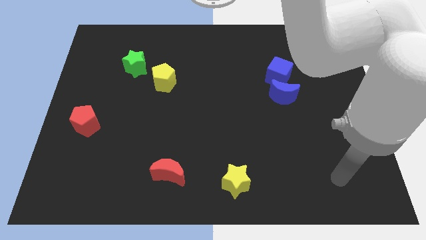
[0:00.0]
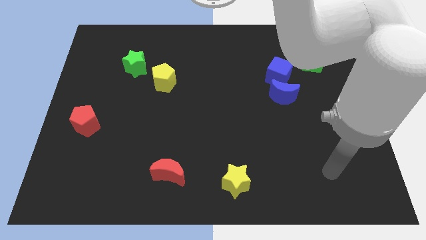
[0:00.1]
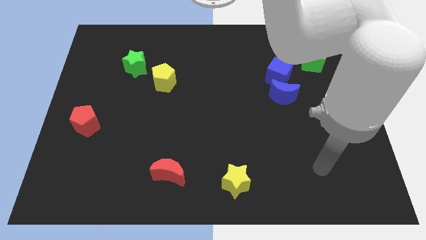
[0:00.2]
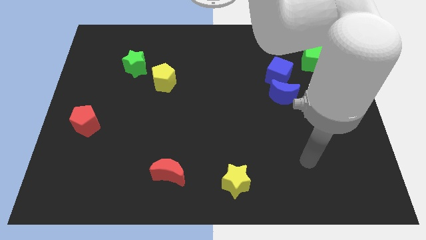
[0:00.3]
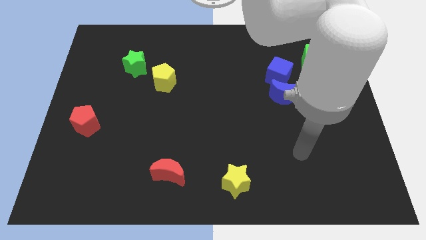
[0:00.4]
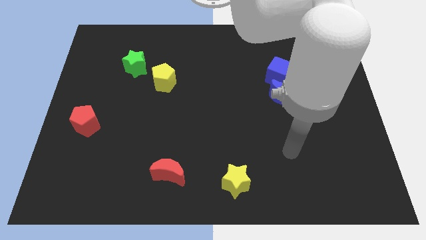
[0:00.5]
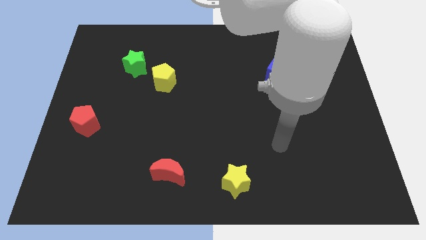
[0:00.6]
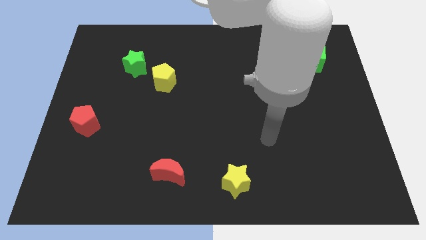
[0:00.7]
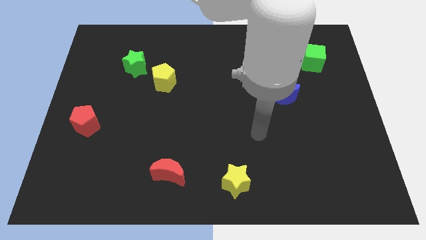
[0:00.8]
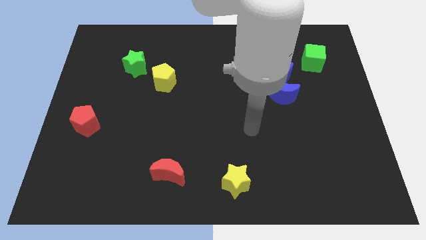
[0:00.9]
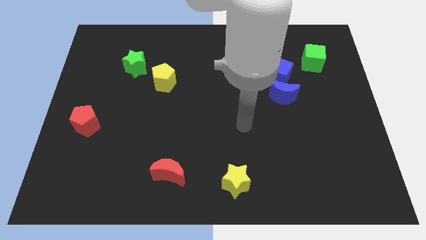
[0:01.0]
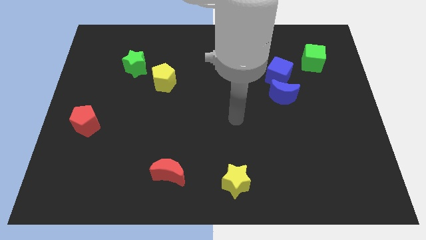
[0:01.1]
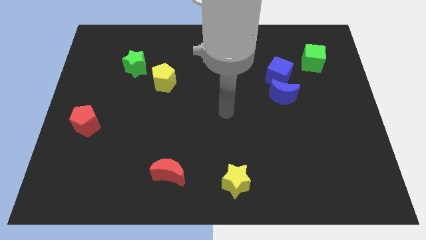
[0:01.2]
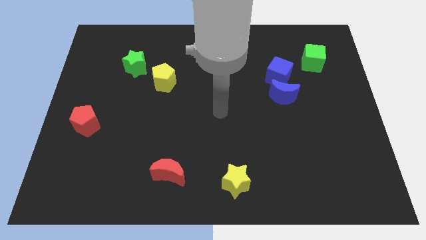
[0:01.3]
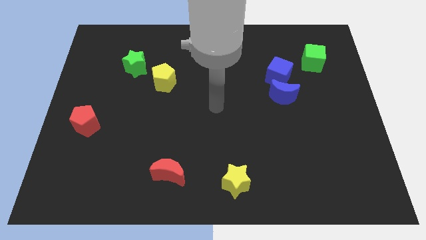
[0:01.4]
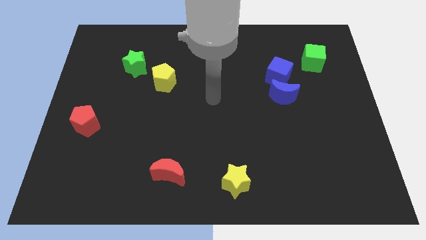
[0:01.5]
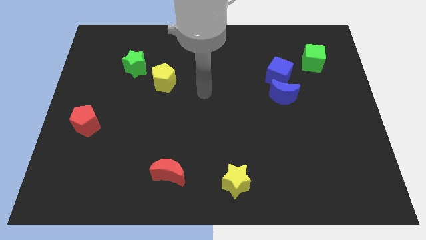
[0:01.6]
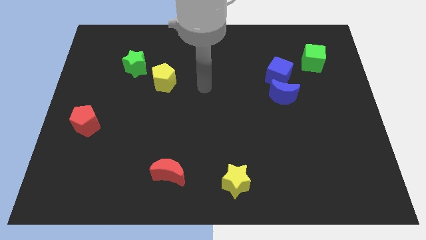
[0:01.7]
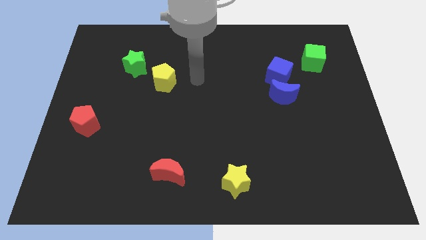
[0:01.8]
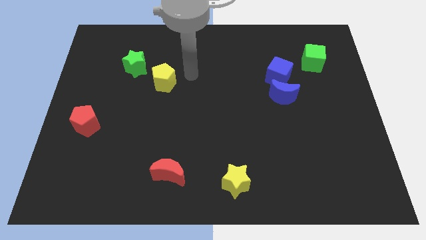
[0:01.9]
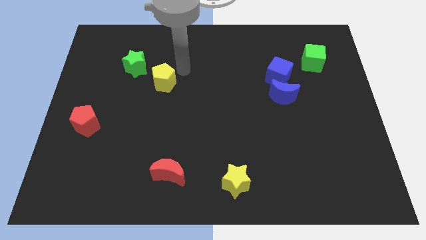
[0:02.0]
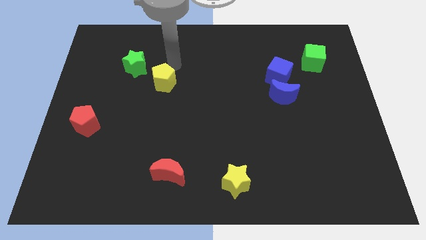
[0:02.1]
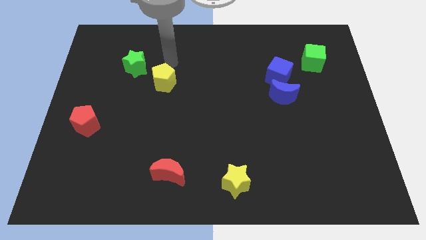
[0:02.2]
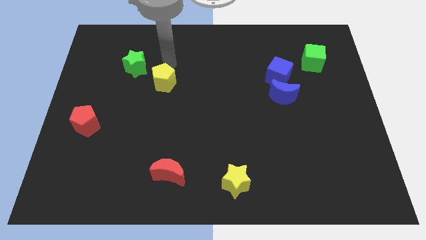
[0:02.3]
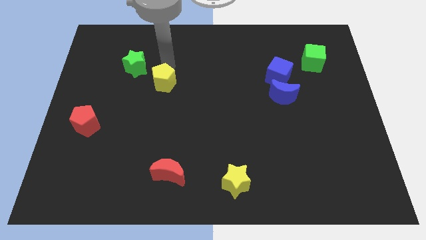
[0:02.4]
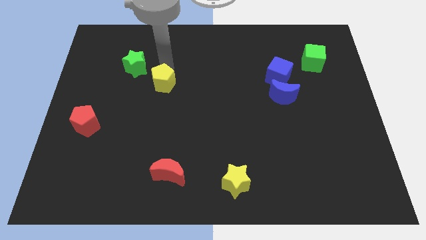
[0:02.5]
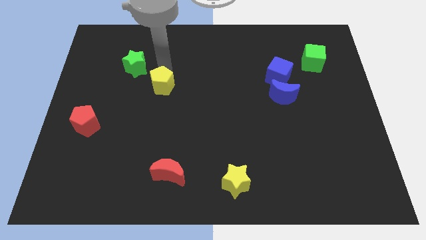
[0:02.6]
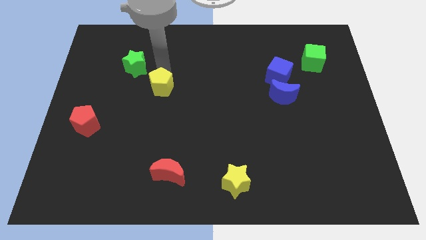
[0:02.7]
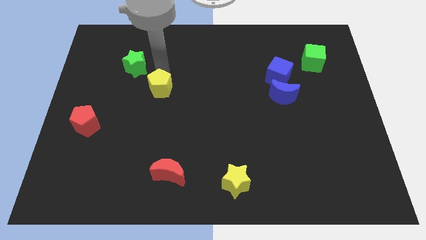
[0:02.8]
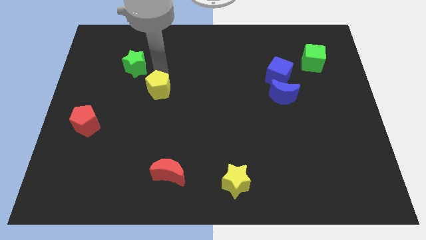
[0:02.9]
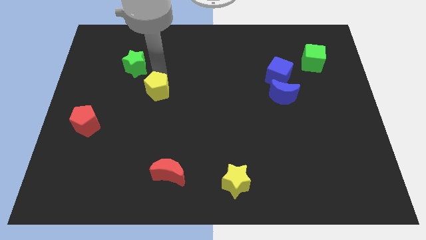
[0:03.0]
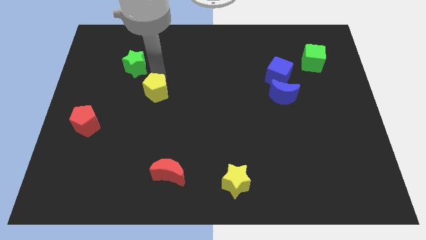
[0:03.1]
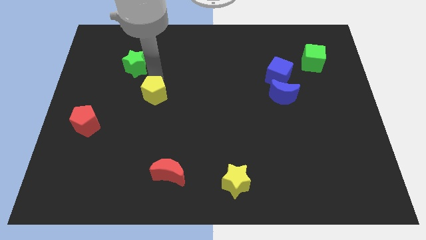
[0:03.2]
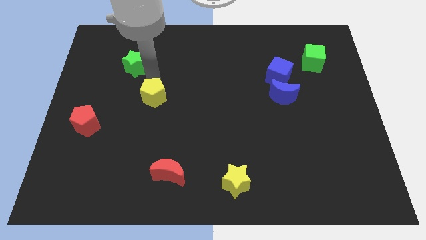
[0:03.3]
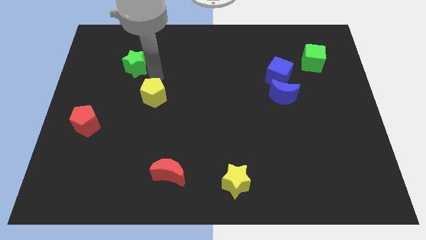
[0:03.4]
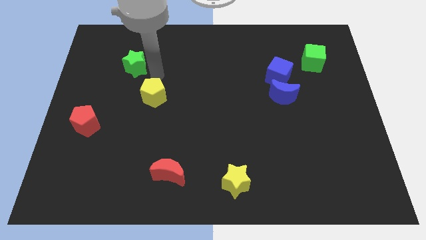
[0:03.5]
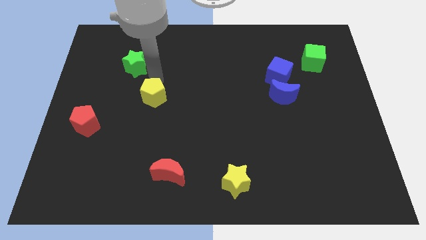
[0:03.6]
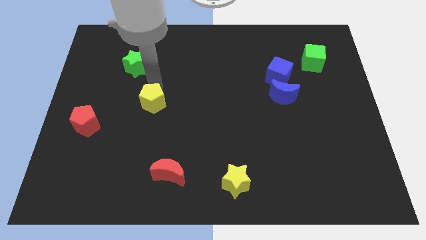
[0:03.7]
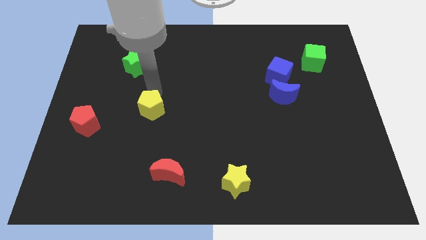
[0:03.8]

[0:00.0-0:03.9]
slightly move the yellow pentagon down

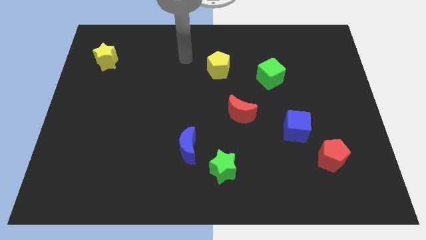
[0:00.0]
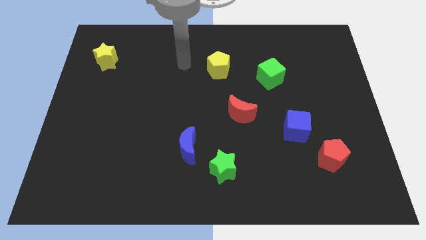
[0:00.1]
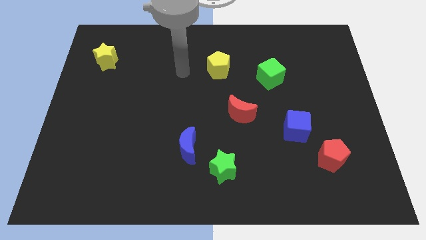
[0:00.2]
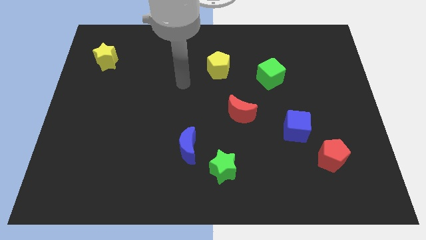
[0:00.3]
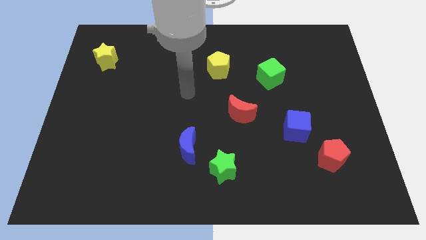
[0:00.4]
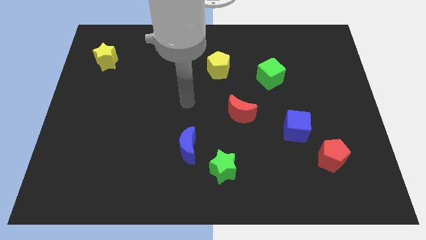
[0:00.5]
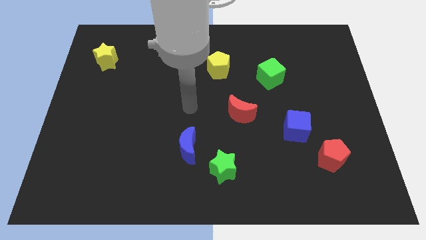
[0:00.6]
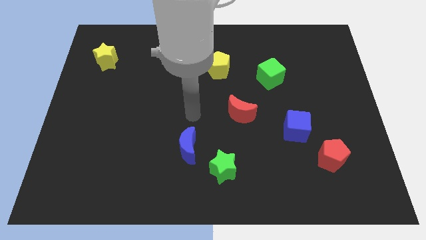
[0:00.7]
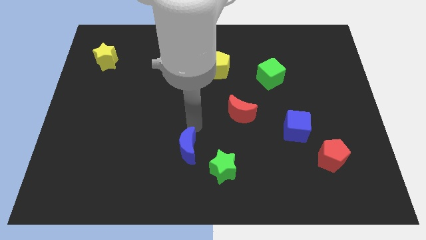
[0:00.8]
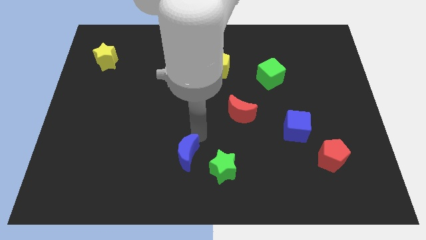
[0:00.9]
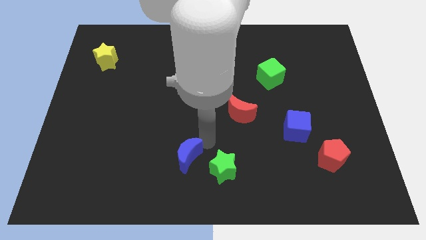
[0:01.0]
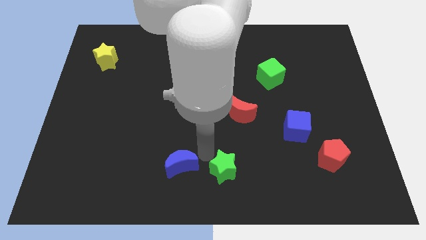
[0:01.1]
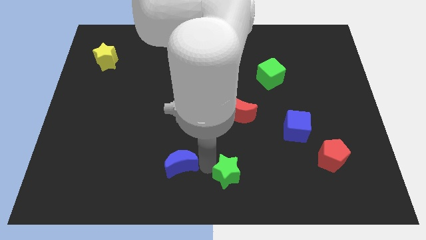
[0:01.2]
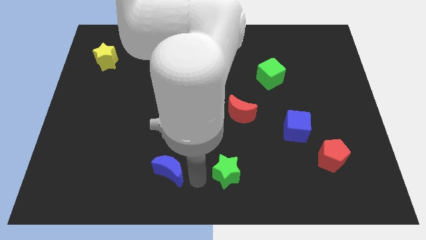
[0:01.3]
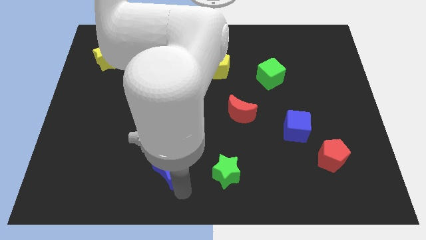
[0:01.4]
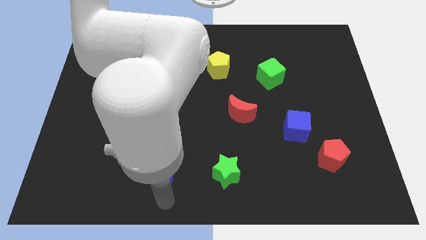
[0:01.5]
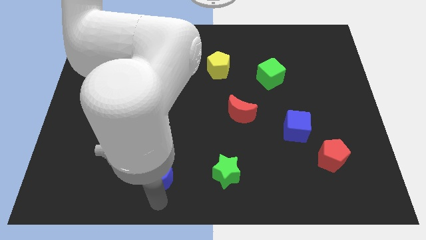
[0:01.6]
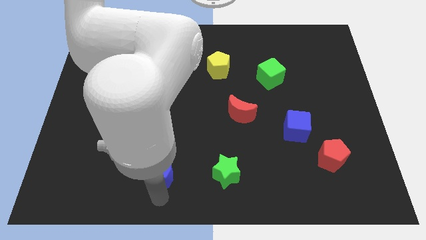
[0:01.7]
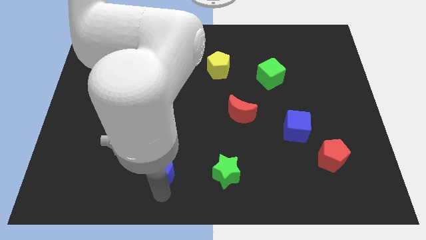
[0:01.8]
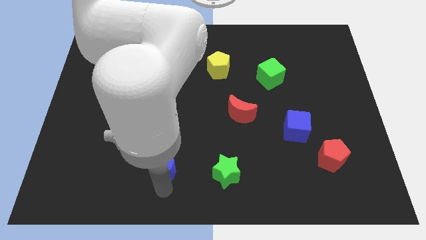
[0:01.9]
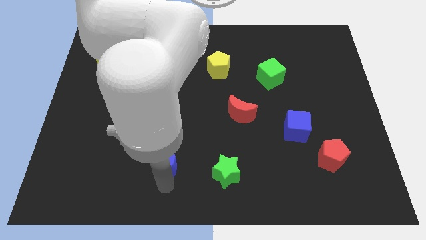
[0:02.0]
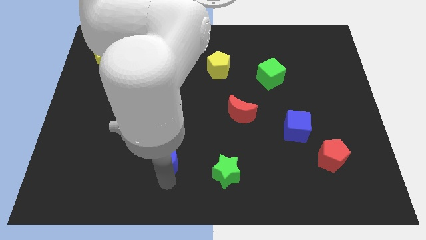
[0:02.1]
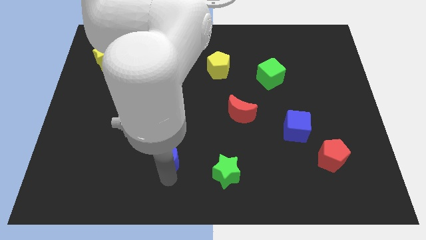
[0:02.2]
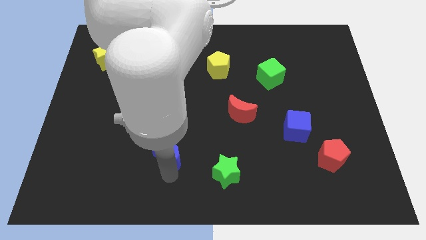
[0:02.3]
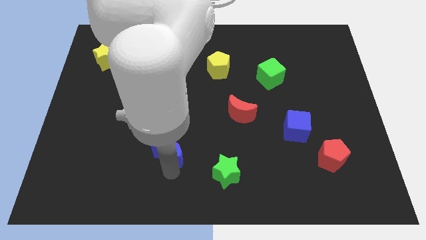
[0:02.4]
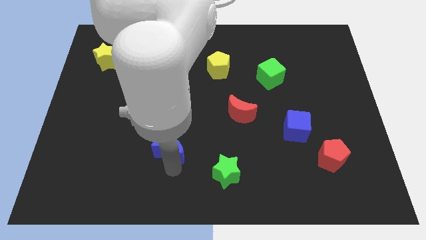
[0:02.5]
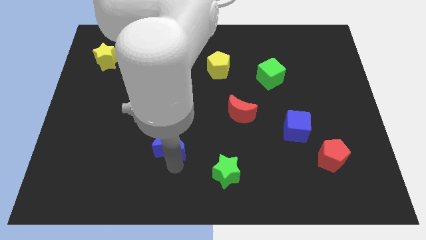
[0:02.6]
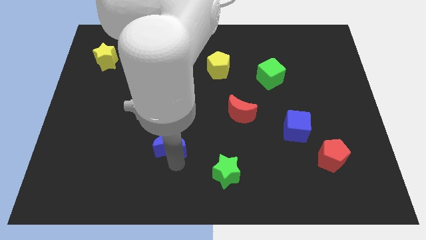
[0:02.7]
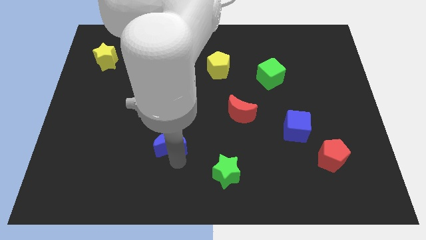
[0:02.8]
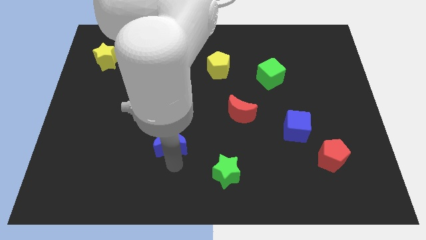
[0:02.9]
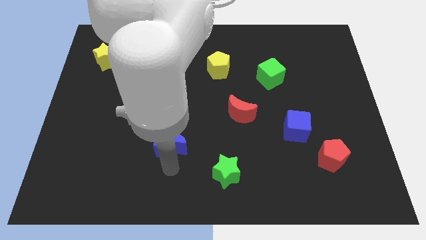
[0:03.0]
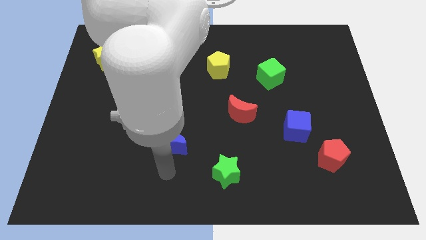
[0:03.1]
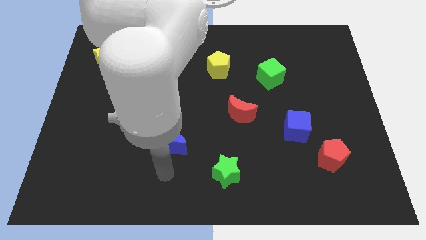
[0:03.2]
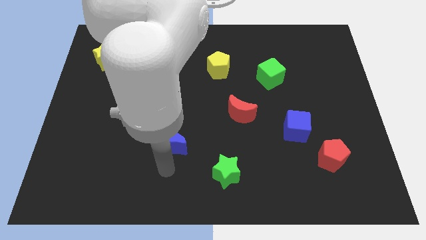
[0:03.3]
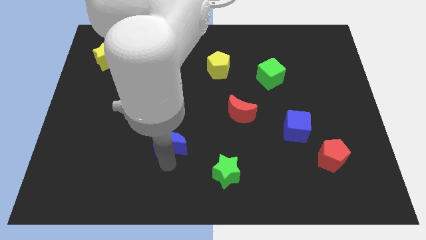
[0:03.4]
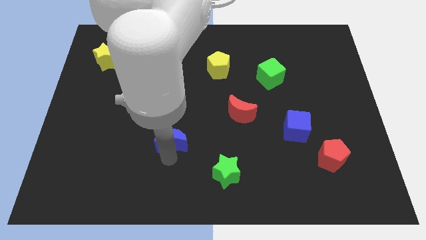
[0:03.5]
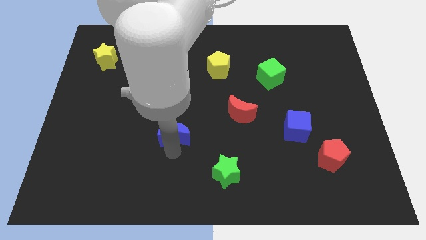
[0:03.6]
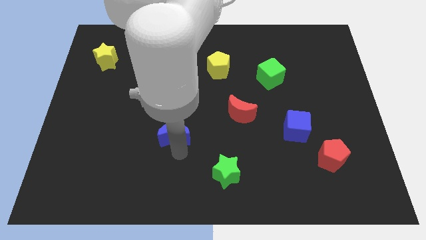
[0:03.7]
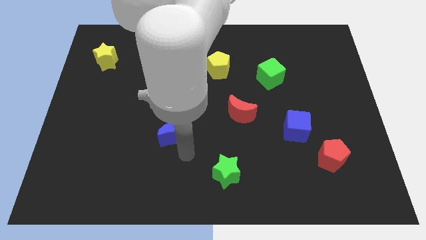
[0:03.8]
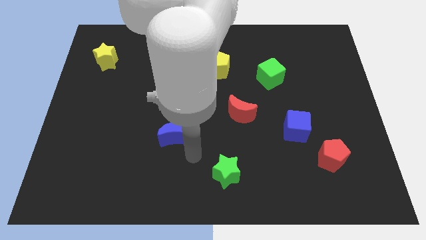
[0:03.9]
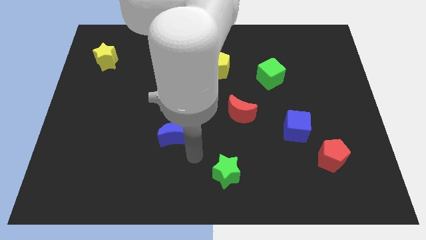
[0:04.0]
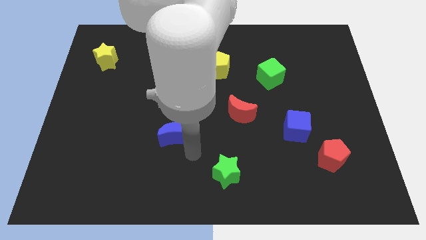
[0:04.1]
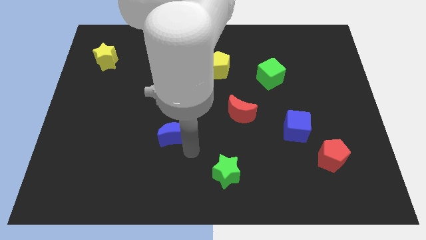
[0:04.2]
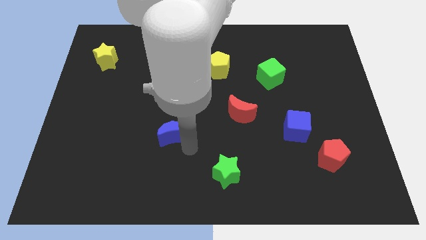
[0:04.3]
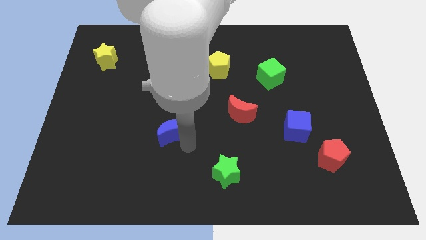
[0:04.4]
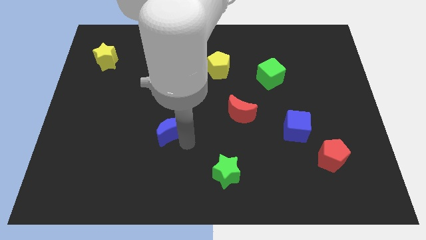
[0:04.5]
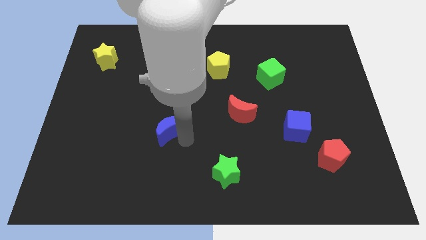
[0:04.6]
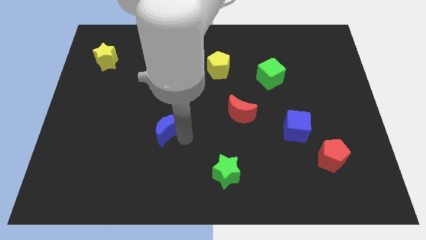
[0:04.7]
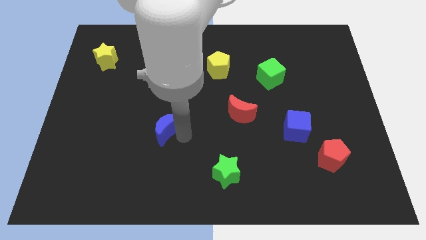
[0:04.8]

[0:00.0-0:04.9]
slightly slide the blue moon upwards and then left
